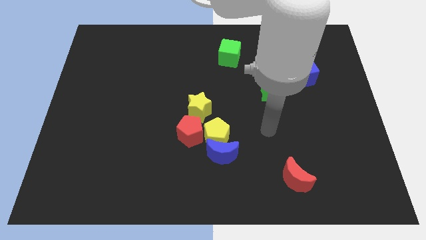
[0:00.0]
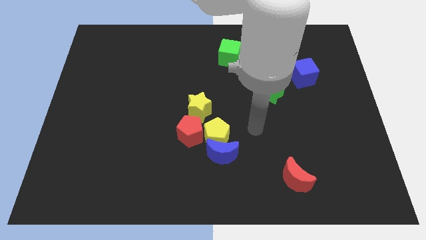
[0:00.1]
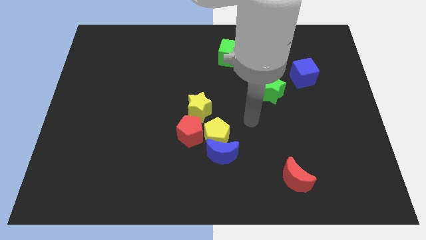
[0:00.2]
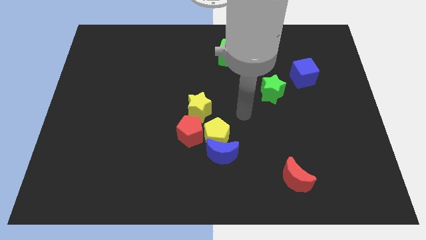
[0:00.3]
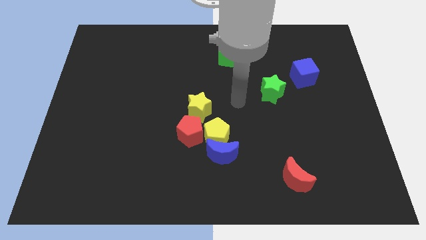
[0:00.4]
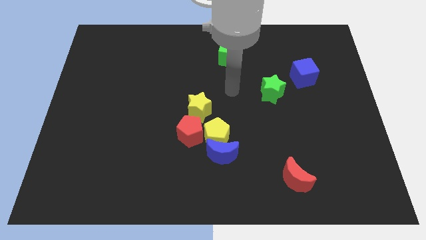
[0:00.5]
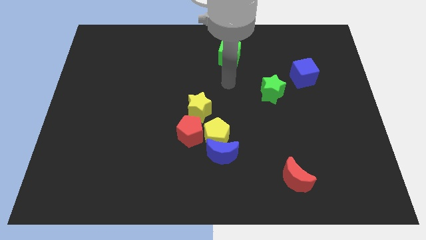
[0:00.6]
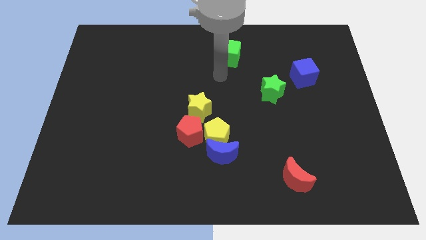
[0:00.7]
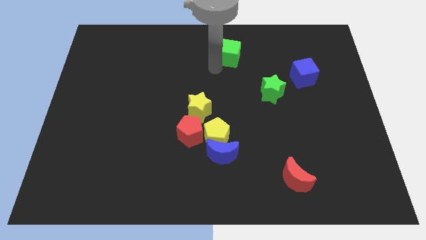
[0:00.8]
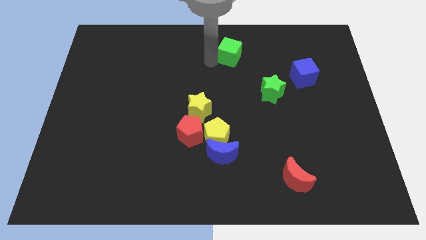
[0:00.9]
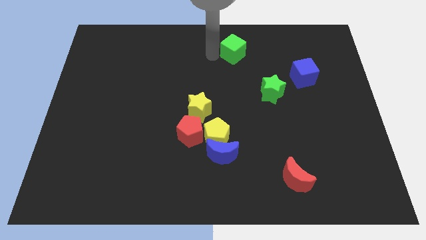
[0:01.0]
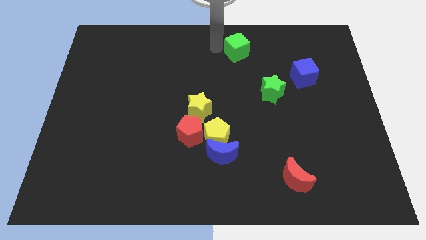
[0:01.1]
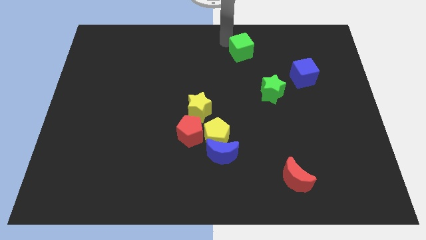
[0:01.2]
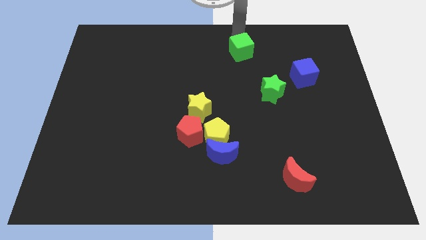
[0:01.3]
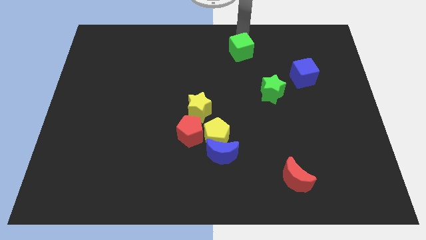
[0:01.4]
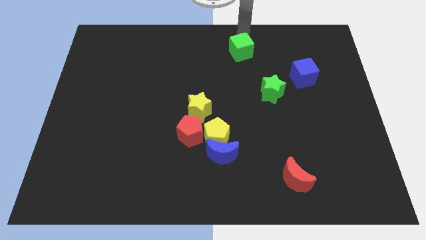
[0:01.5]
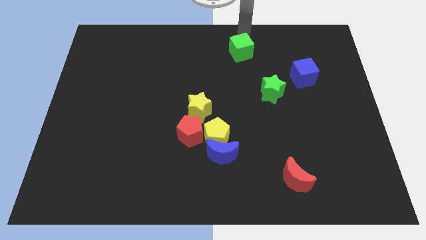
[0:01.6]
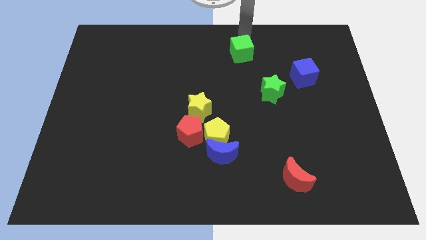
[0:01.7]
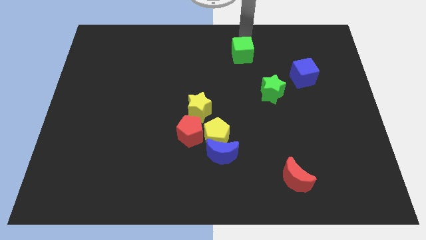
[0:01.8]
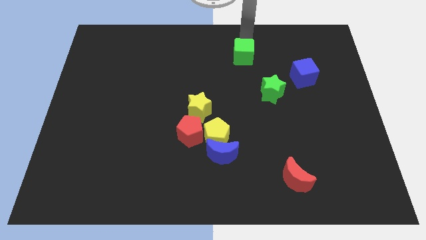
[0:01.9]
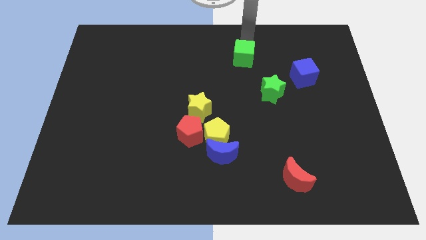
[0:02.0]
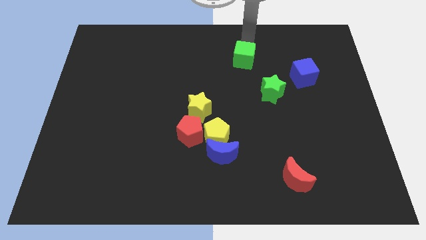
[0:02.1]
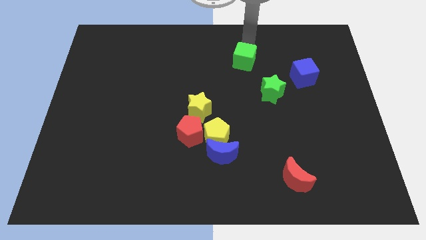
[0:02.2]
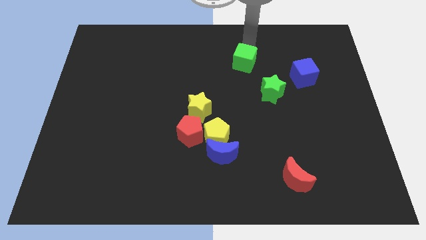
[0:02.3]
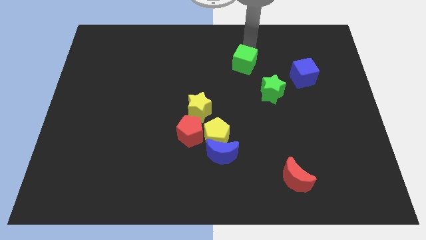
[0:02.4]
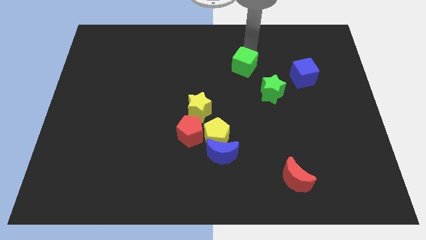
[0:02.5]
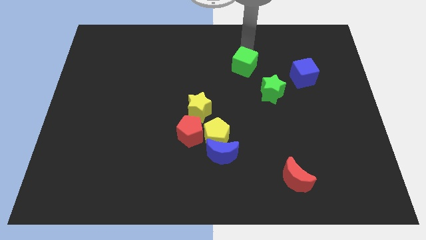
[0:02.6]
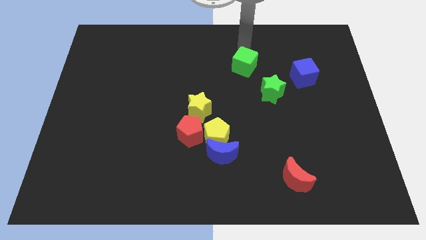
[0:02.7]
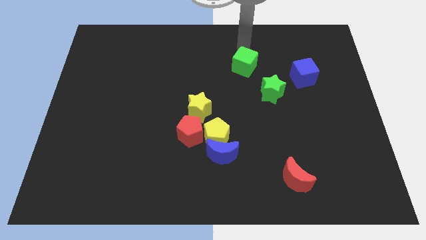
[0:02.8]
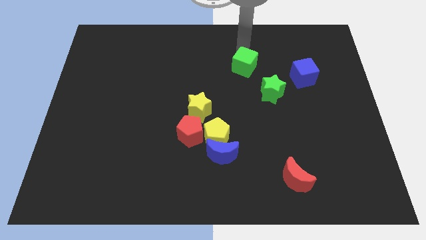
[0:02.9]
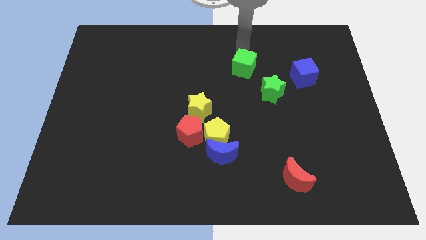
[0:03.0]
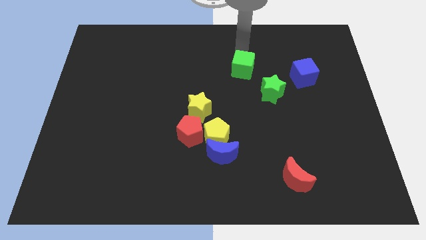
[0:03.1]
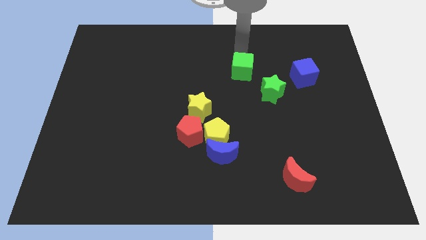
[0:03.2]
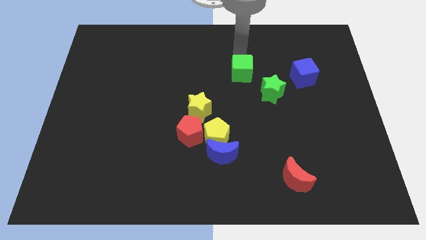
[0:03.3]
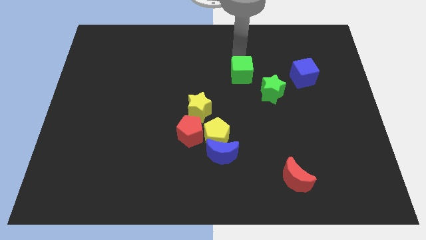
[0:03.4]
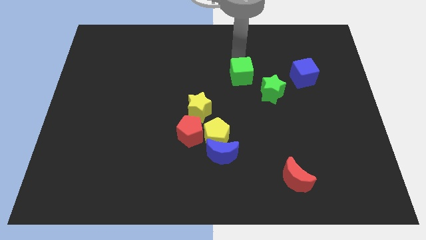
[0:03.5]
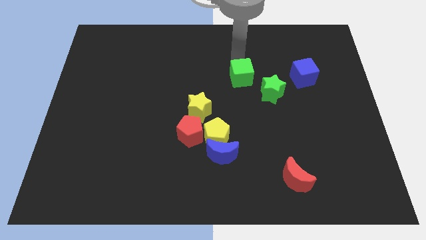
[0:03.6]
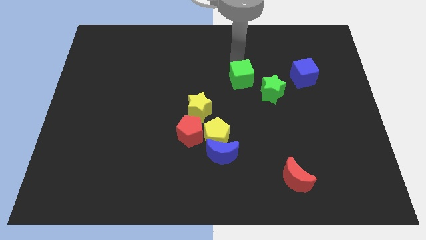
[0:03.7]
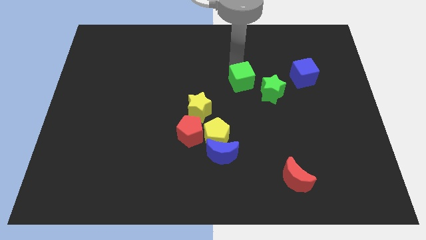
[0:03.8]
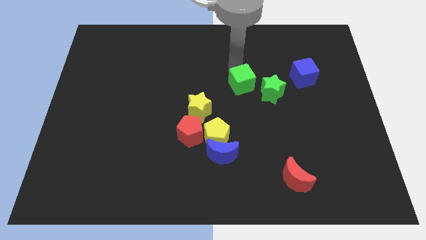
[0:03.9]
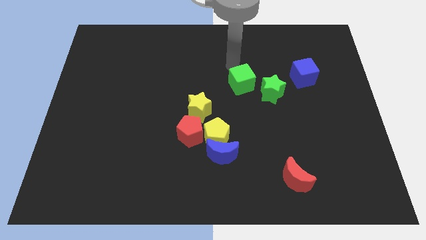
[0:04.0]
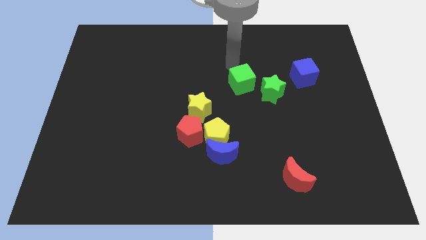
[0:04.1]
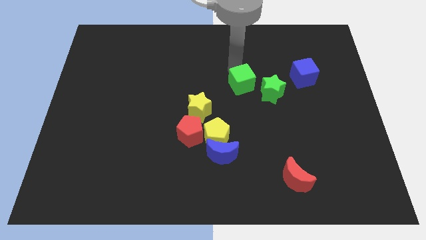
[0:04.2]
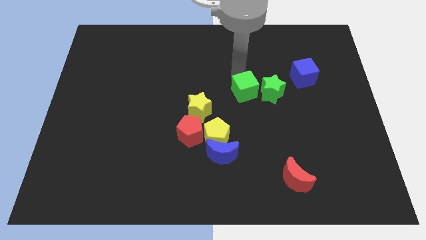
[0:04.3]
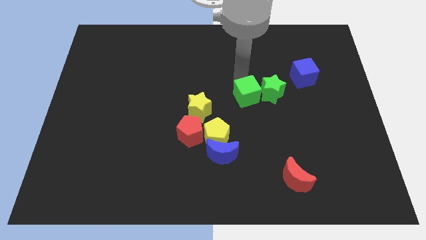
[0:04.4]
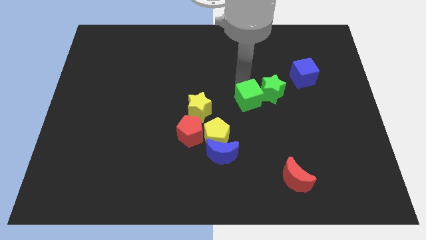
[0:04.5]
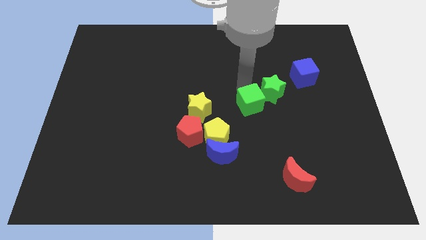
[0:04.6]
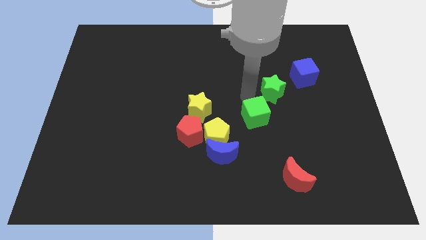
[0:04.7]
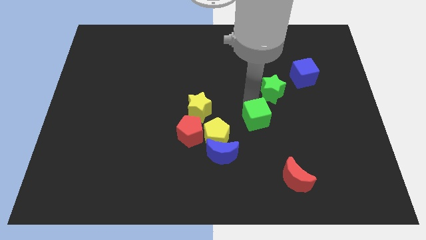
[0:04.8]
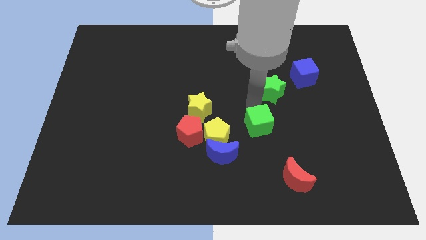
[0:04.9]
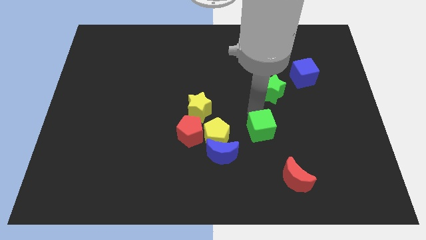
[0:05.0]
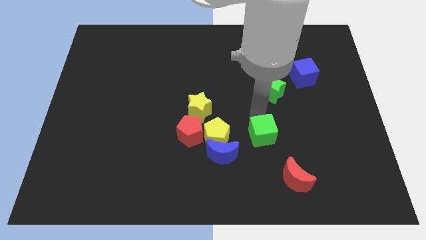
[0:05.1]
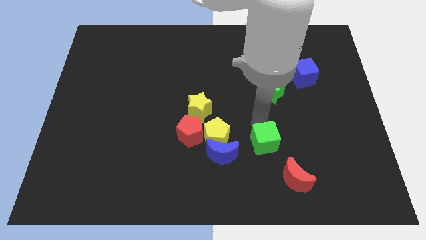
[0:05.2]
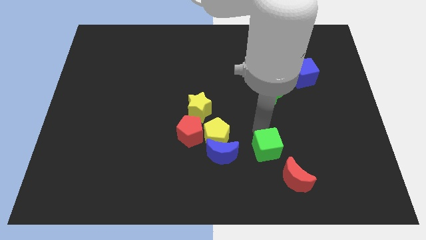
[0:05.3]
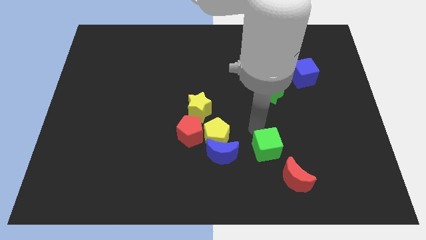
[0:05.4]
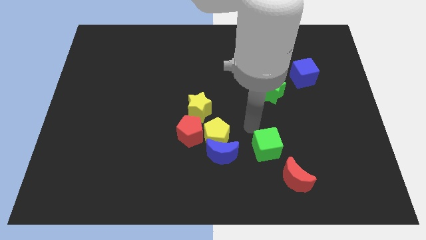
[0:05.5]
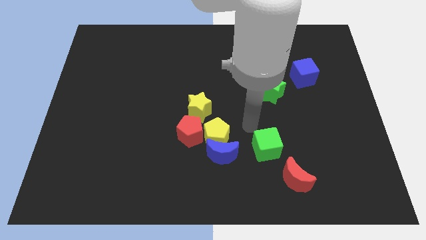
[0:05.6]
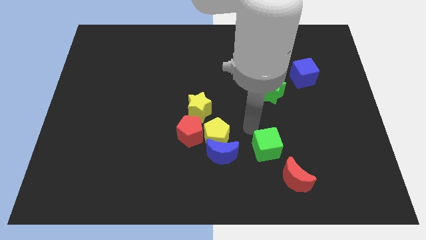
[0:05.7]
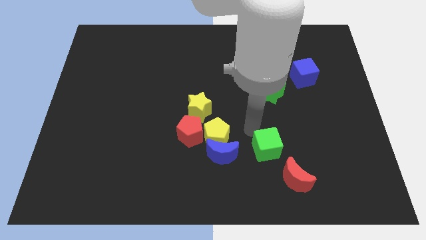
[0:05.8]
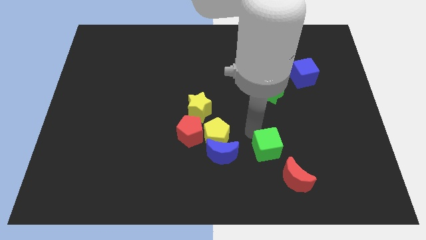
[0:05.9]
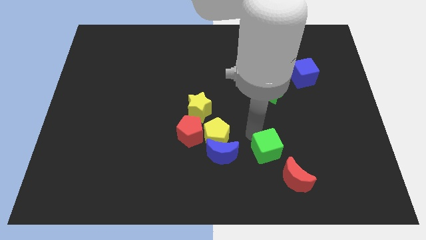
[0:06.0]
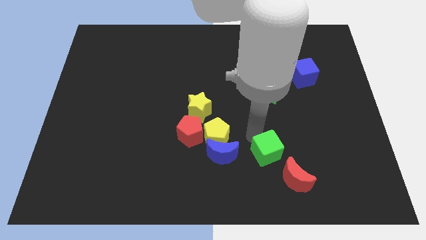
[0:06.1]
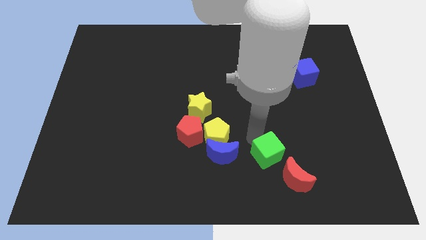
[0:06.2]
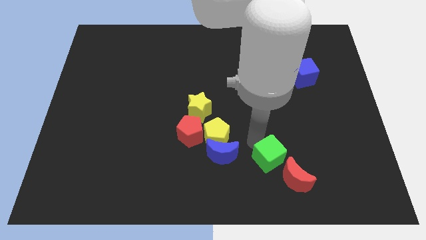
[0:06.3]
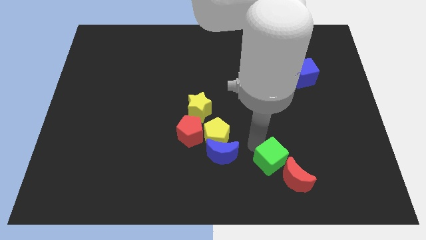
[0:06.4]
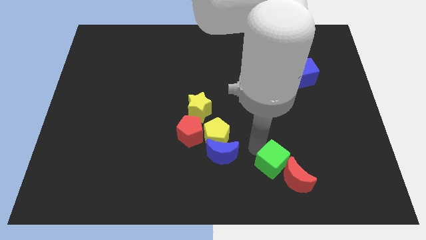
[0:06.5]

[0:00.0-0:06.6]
put the green cube to the red moon

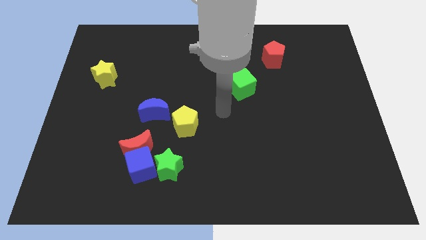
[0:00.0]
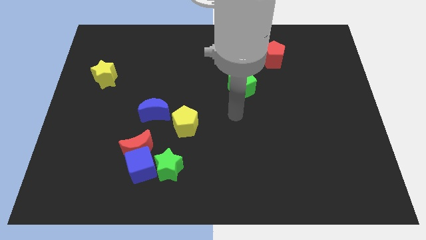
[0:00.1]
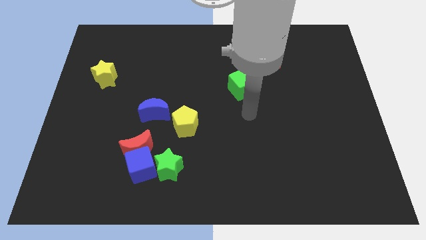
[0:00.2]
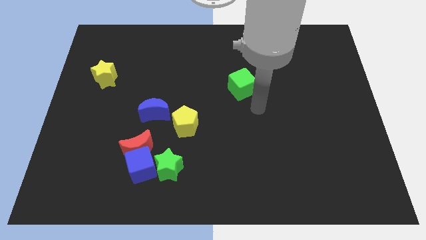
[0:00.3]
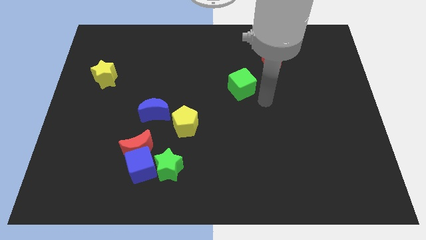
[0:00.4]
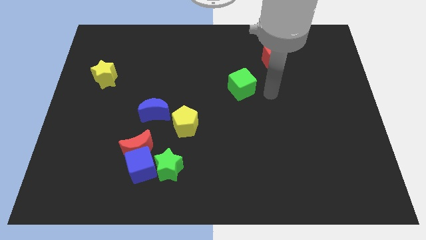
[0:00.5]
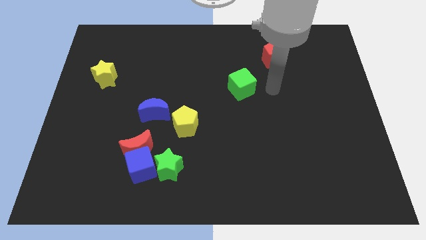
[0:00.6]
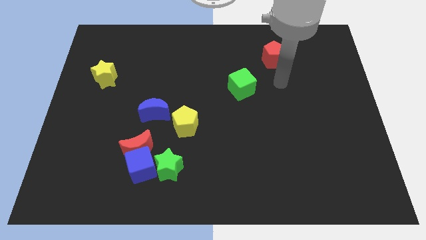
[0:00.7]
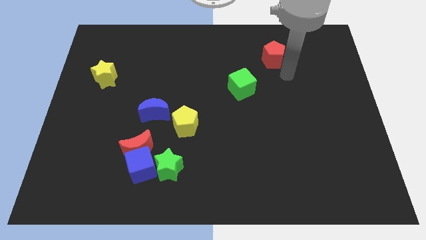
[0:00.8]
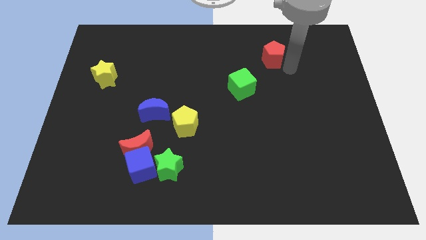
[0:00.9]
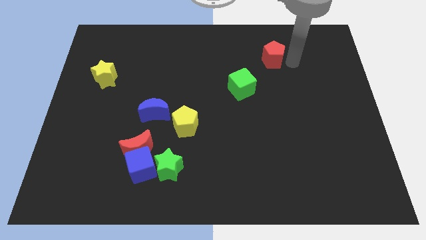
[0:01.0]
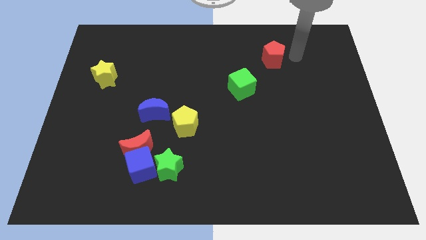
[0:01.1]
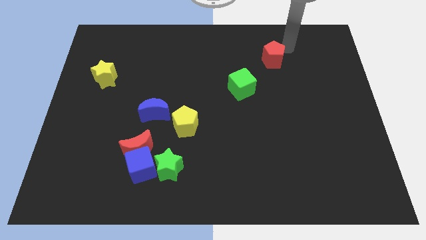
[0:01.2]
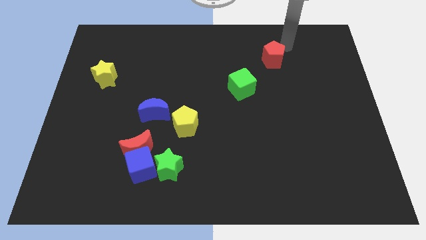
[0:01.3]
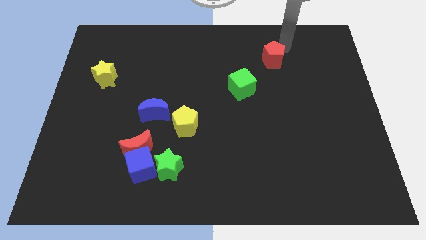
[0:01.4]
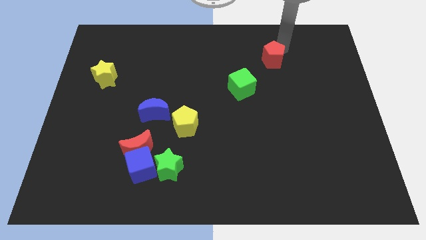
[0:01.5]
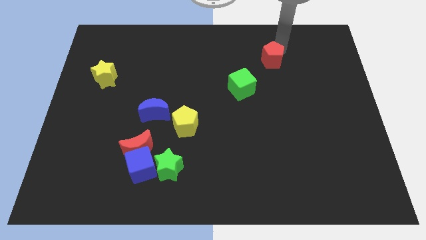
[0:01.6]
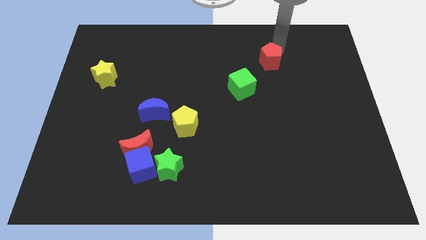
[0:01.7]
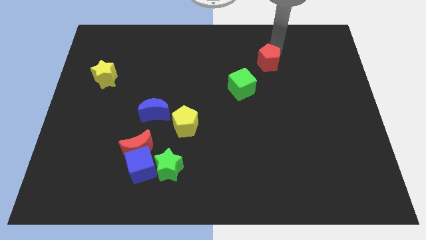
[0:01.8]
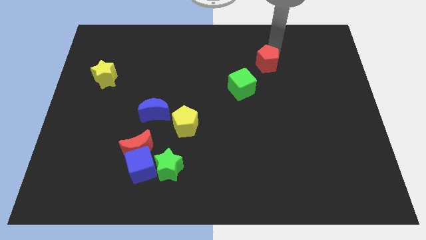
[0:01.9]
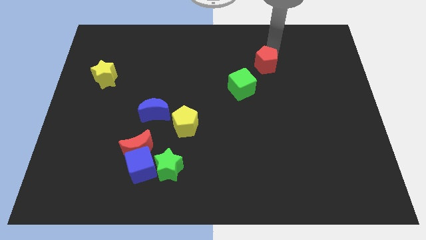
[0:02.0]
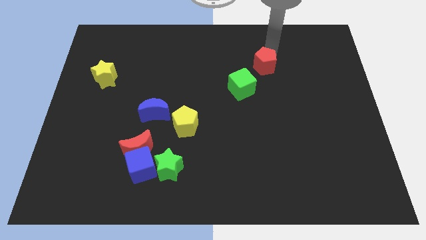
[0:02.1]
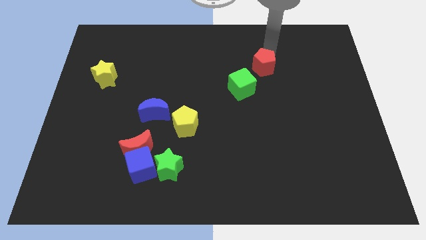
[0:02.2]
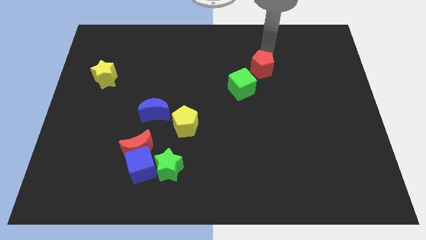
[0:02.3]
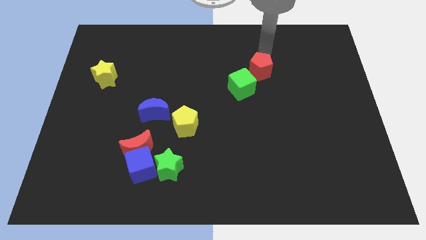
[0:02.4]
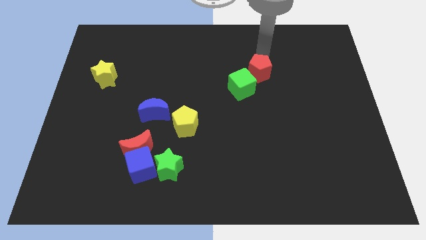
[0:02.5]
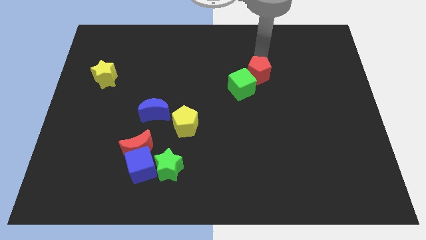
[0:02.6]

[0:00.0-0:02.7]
put the red pentagon next to the green cube
